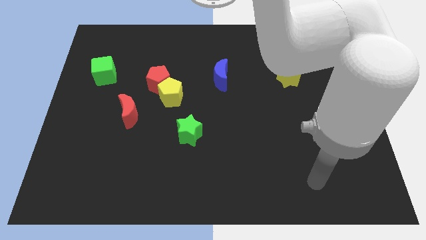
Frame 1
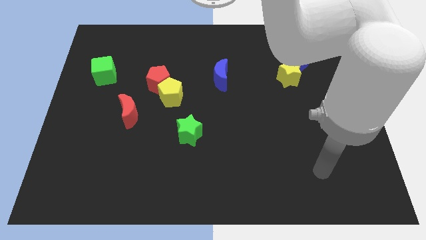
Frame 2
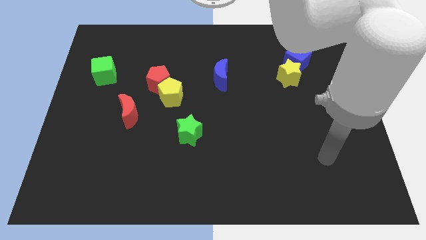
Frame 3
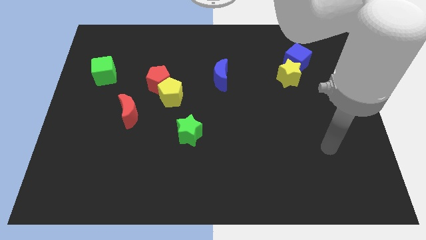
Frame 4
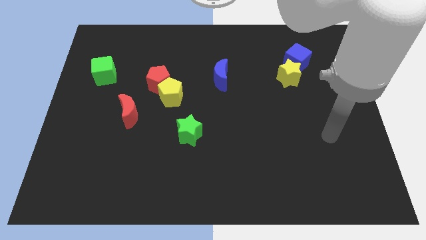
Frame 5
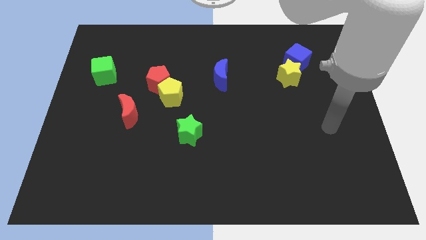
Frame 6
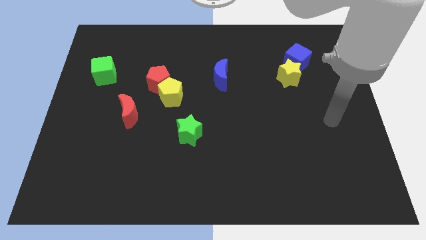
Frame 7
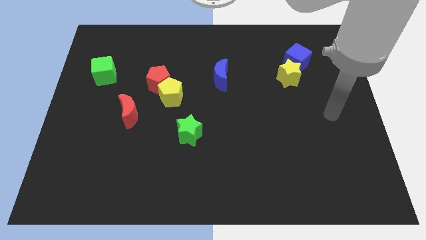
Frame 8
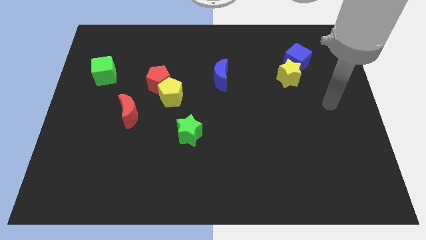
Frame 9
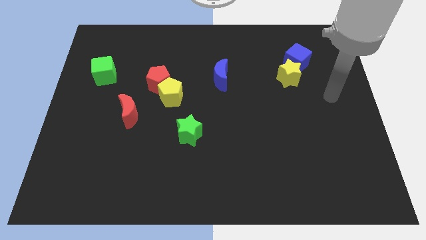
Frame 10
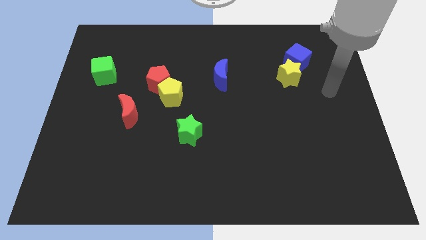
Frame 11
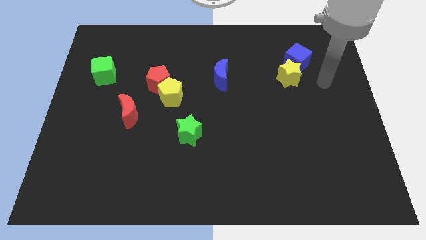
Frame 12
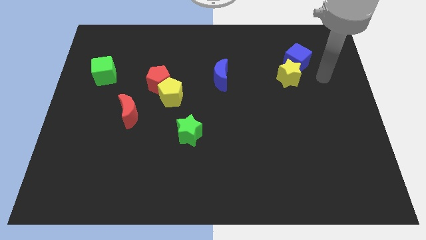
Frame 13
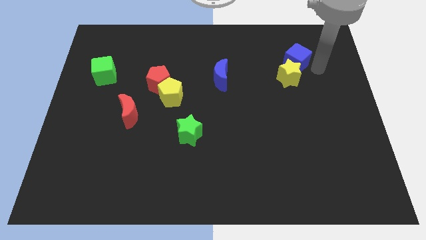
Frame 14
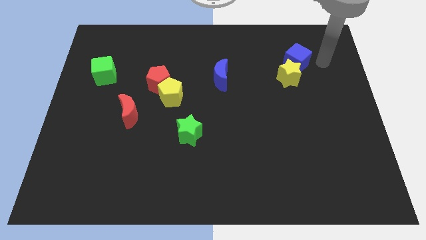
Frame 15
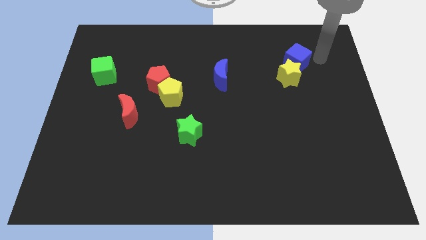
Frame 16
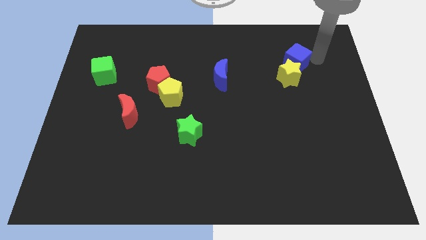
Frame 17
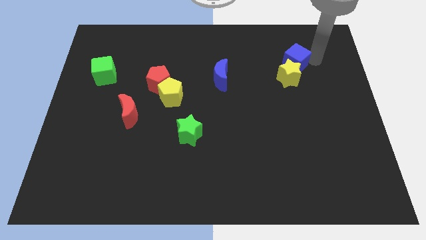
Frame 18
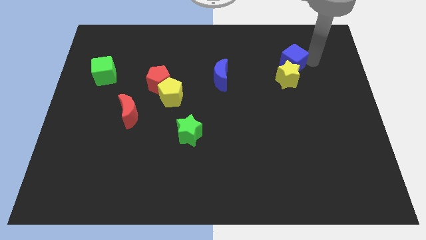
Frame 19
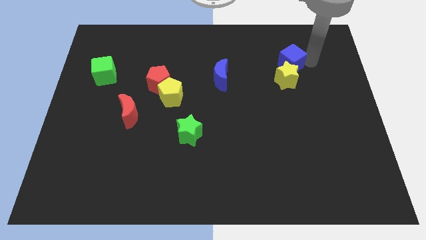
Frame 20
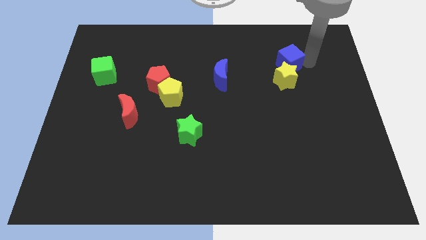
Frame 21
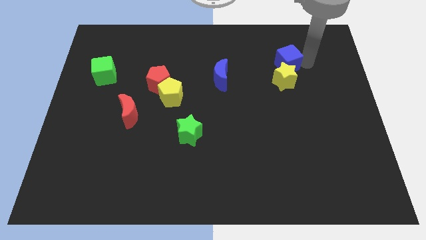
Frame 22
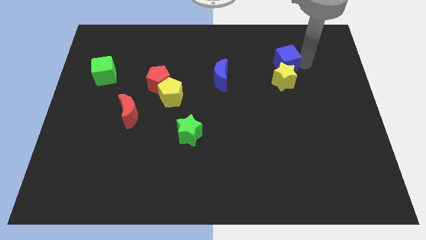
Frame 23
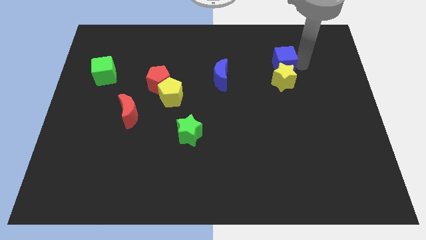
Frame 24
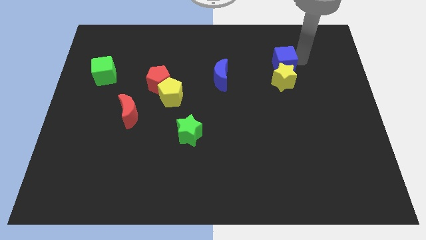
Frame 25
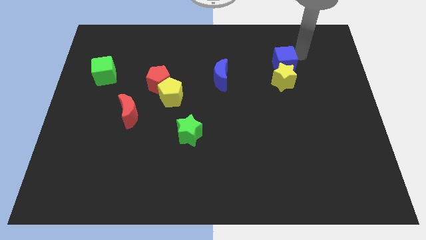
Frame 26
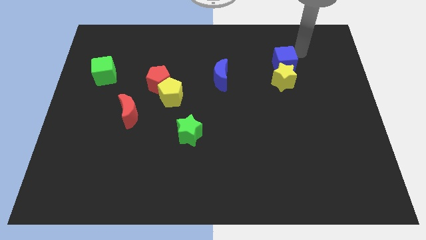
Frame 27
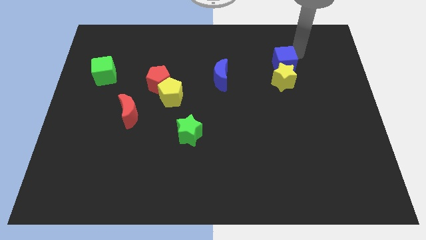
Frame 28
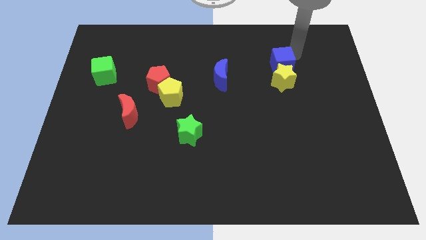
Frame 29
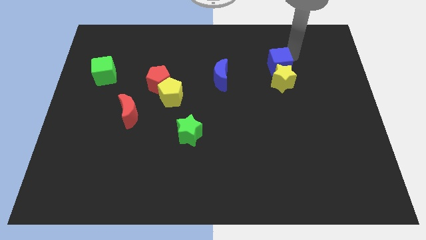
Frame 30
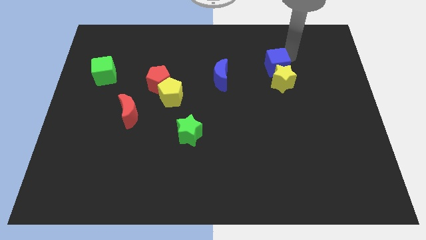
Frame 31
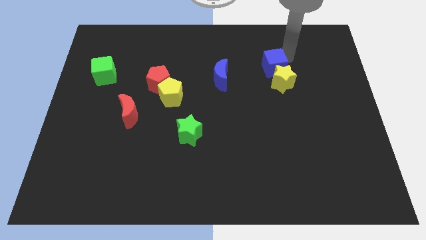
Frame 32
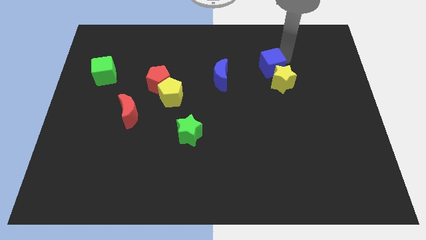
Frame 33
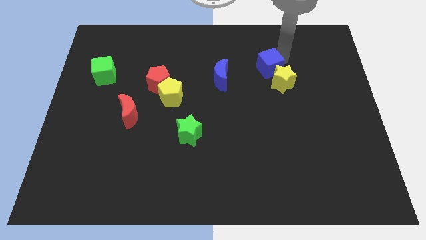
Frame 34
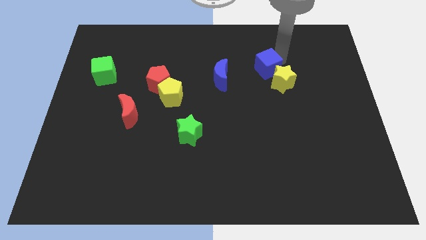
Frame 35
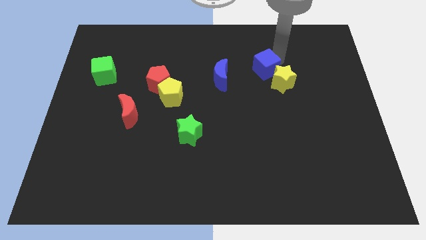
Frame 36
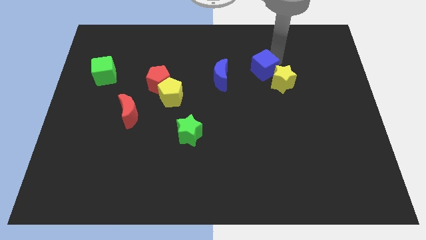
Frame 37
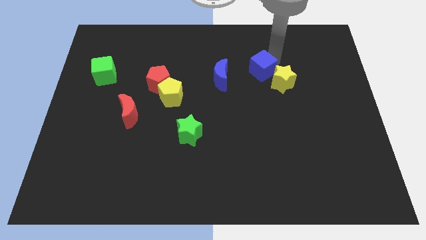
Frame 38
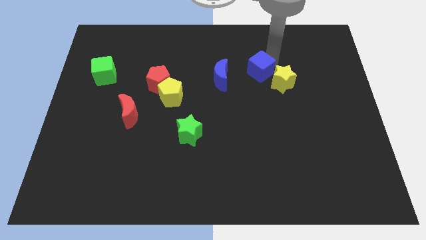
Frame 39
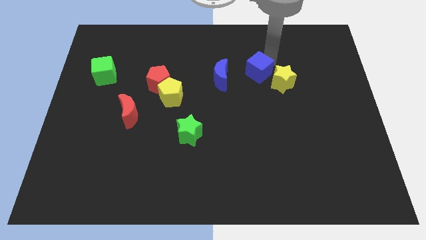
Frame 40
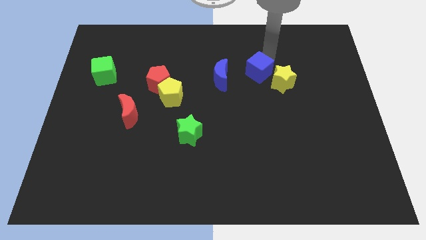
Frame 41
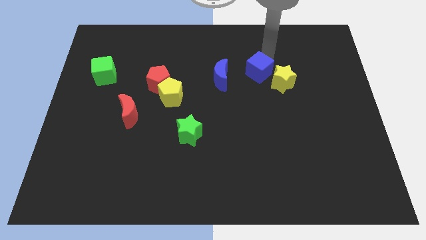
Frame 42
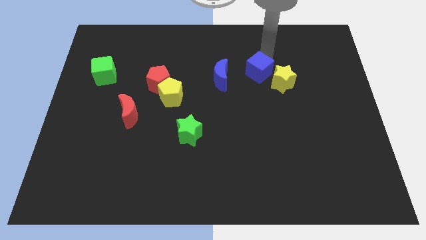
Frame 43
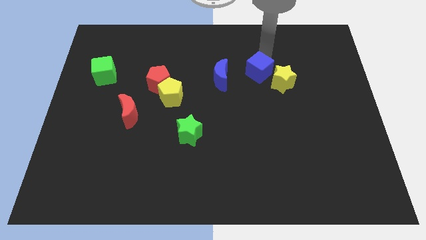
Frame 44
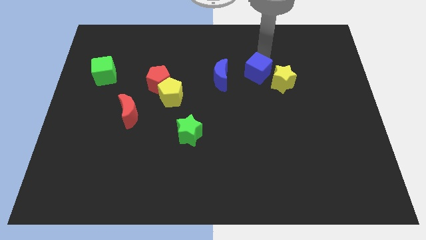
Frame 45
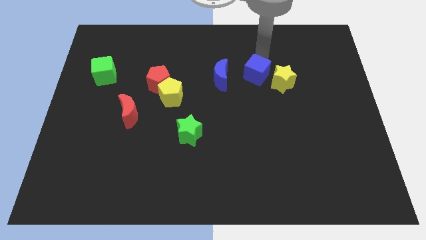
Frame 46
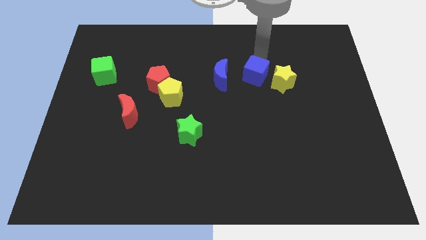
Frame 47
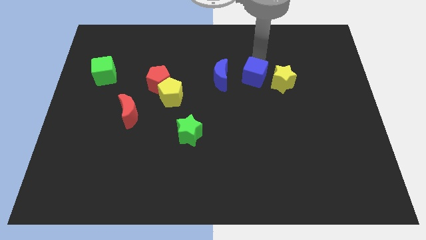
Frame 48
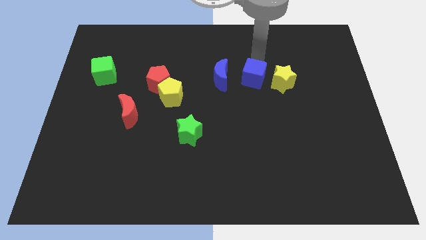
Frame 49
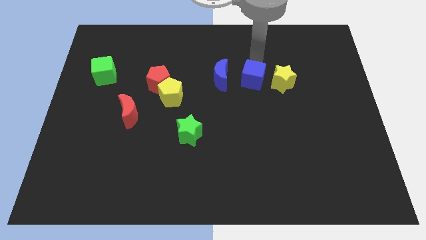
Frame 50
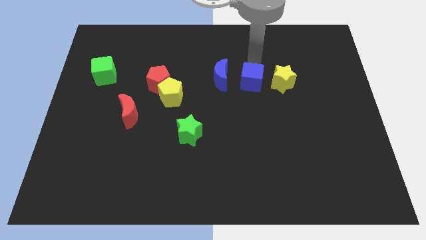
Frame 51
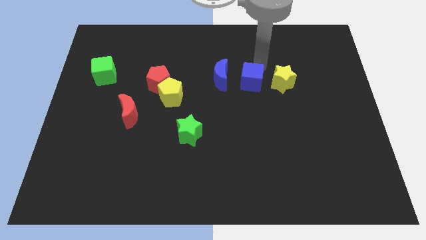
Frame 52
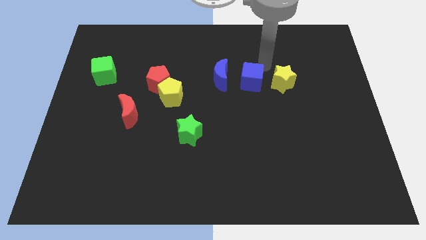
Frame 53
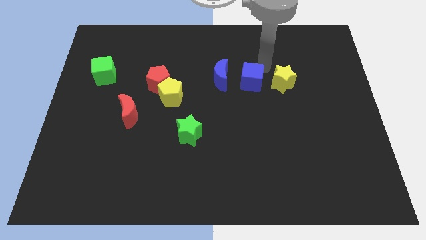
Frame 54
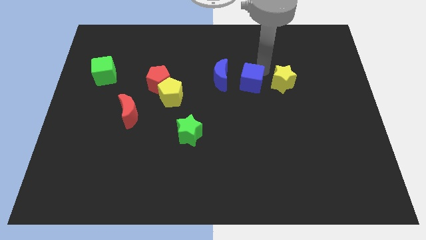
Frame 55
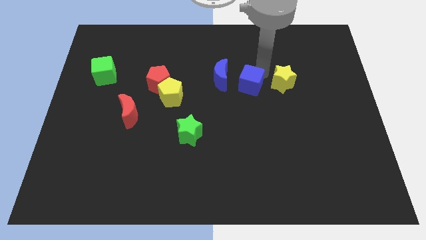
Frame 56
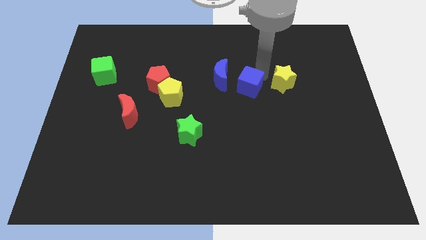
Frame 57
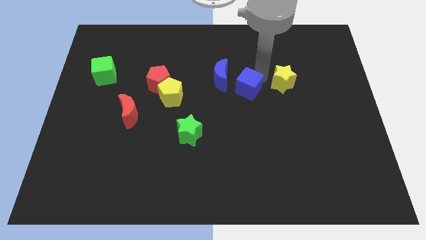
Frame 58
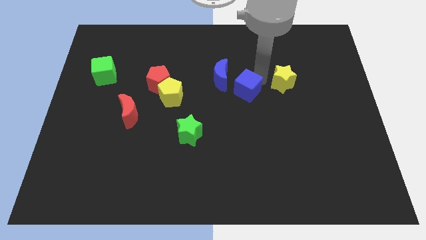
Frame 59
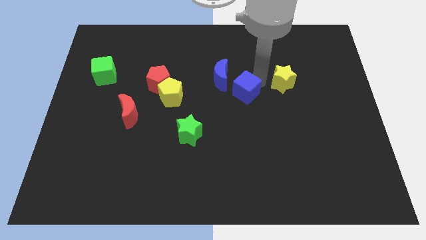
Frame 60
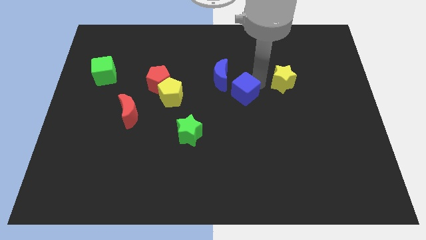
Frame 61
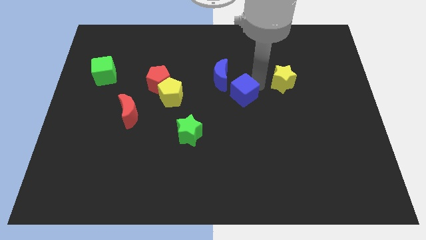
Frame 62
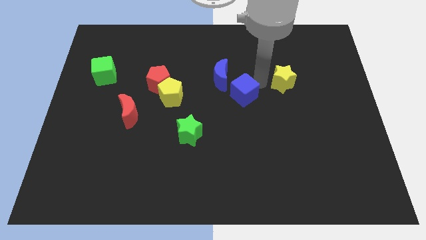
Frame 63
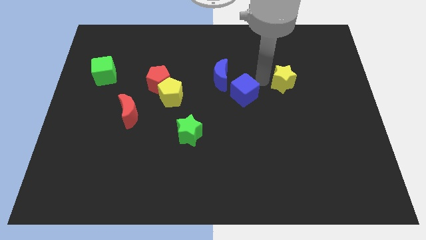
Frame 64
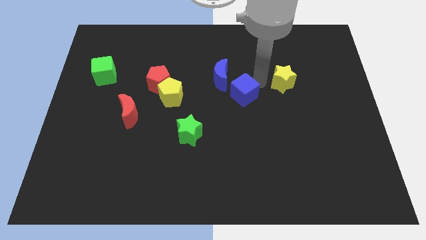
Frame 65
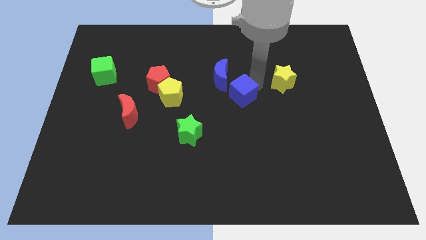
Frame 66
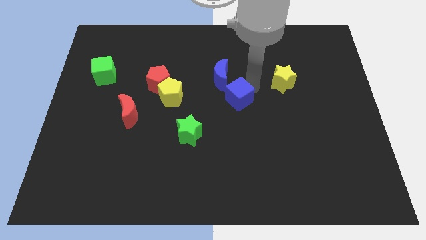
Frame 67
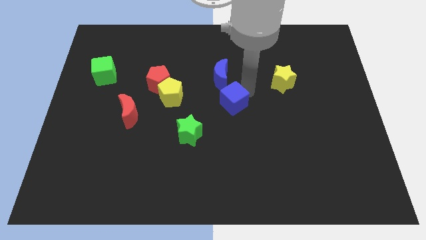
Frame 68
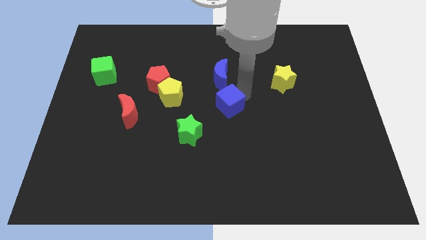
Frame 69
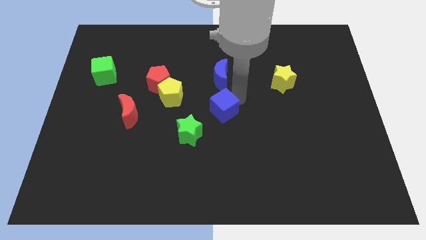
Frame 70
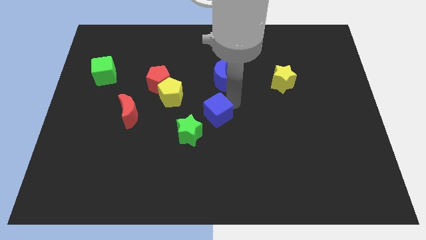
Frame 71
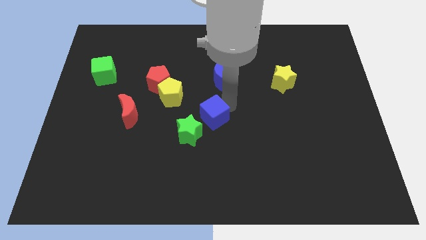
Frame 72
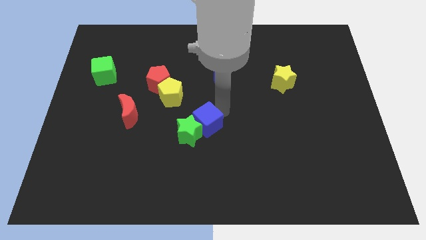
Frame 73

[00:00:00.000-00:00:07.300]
push the blue cube towards the green star
